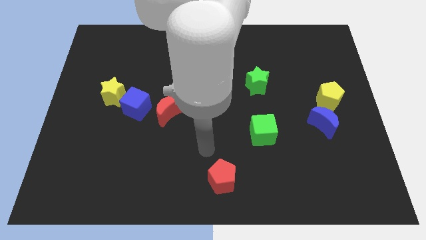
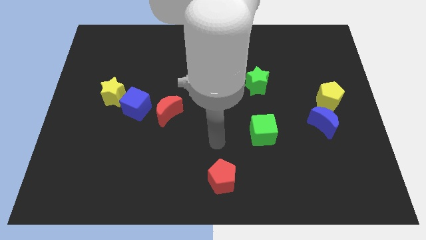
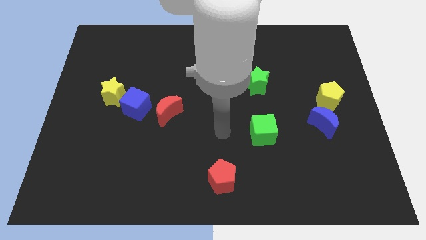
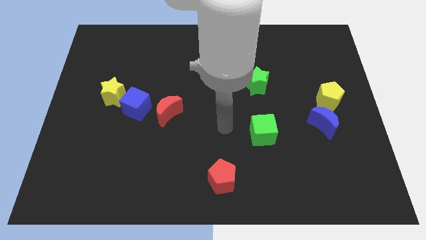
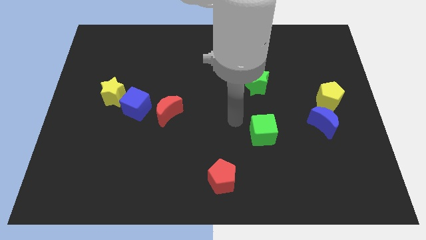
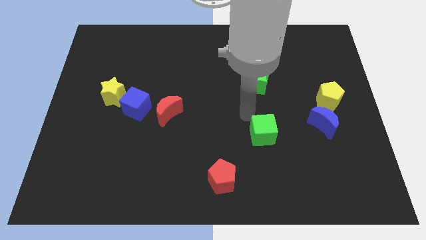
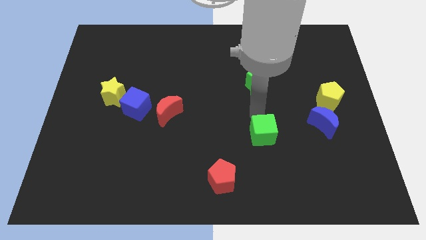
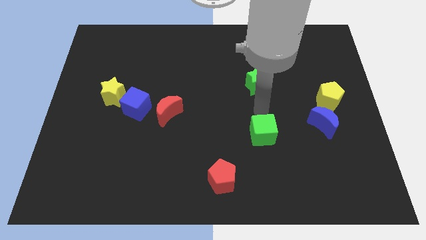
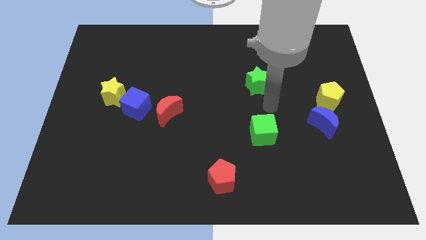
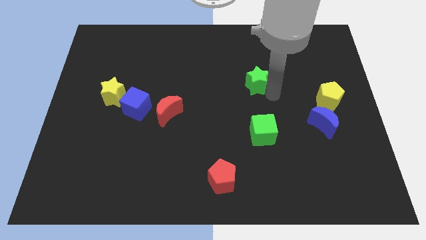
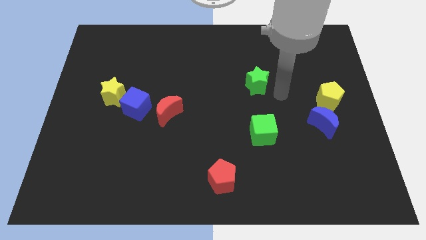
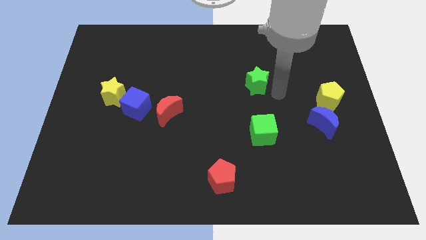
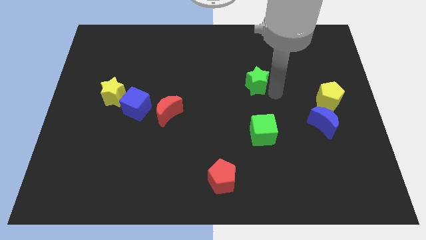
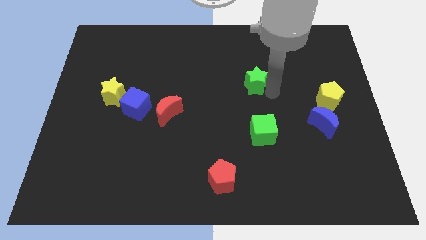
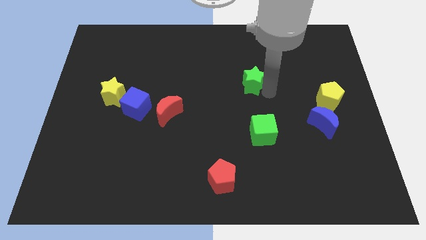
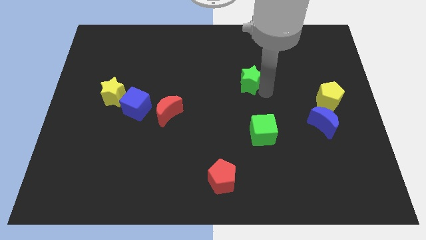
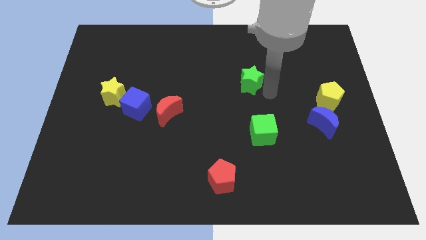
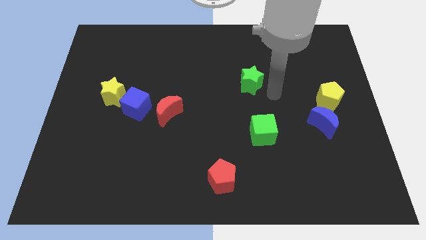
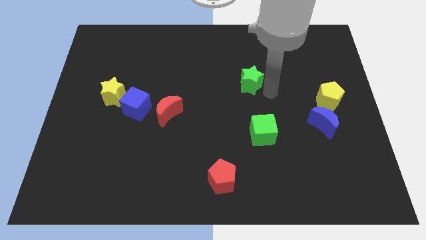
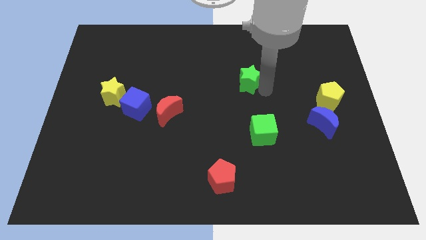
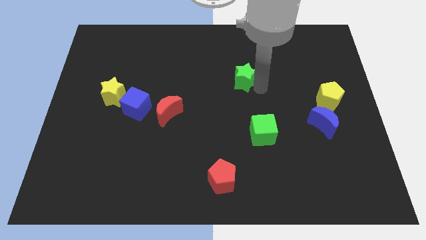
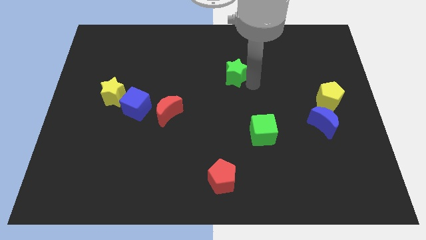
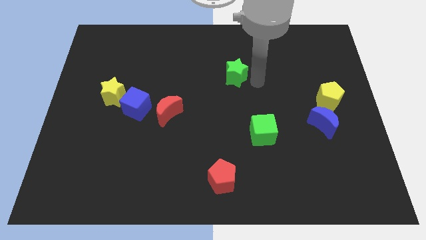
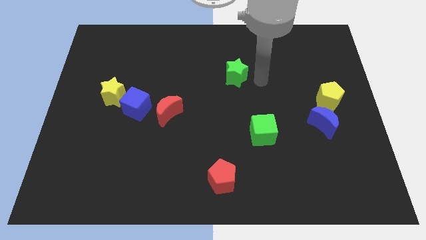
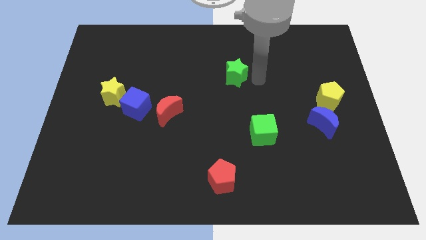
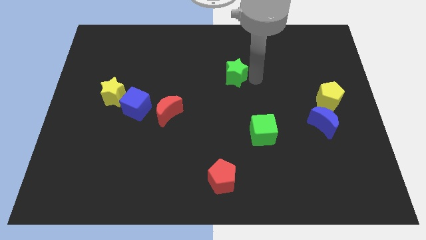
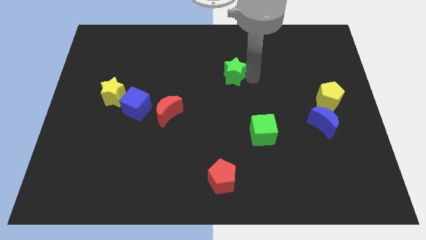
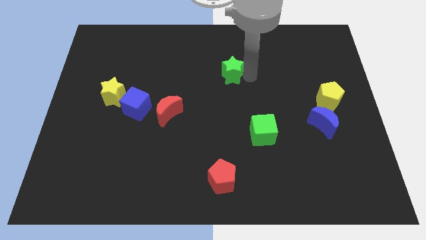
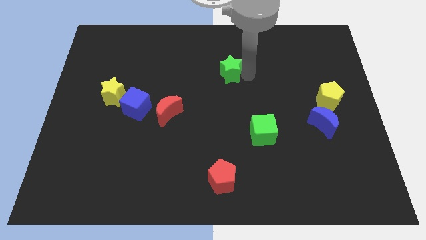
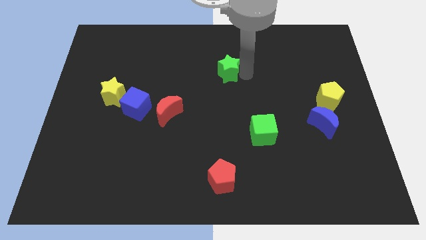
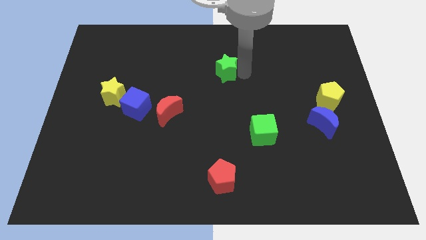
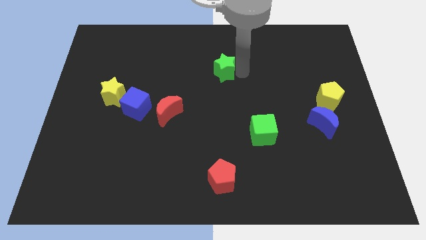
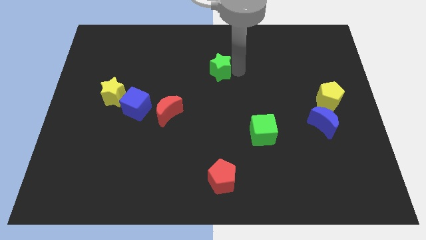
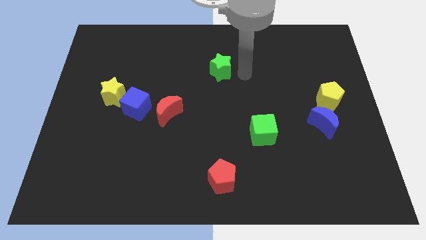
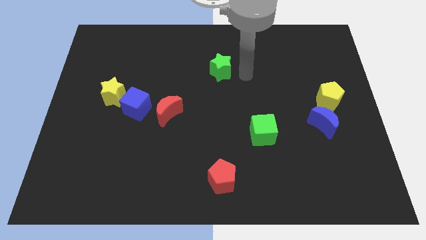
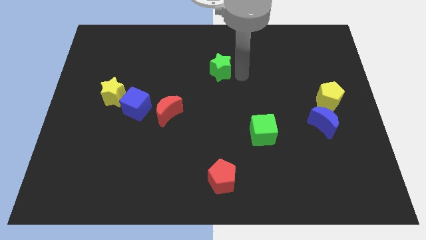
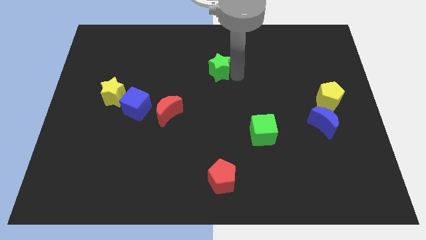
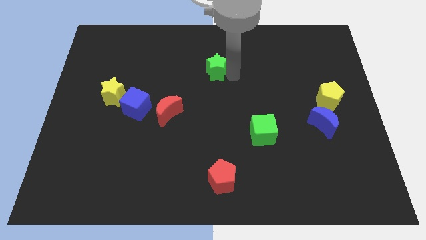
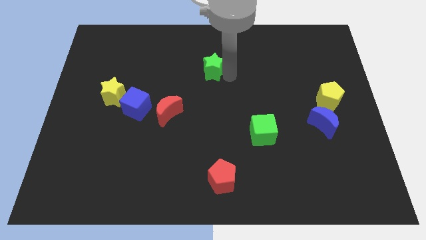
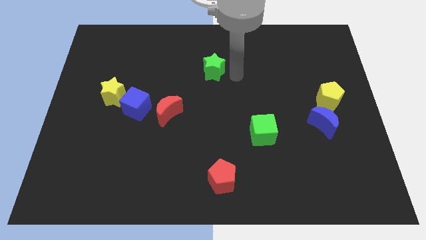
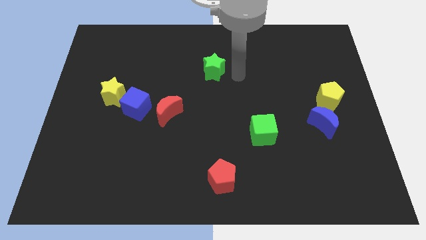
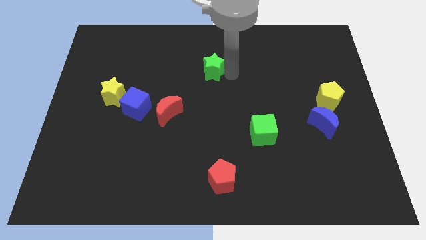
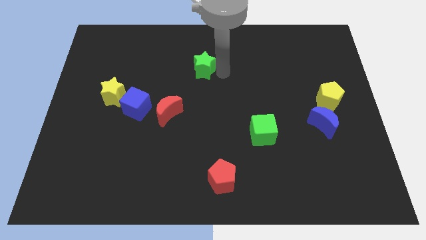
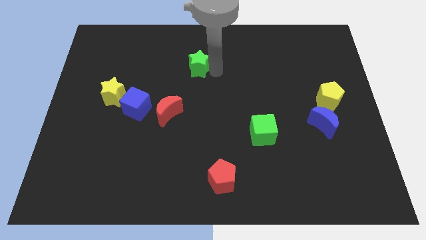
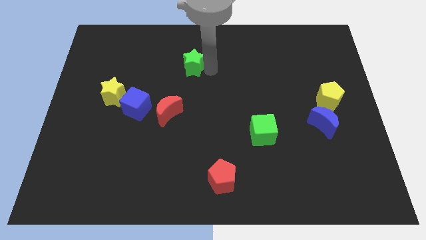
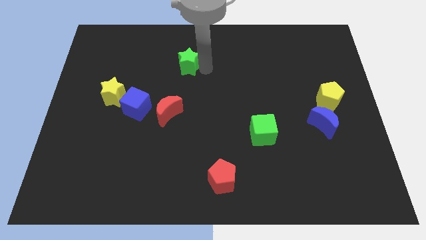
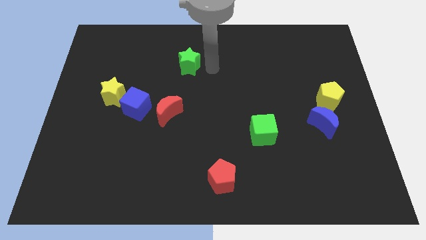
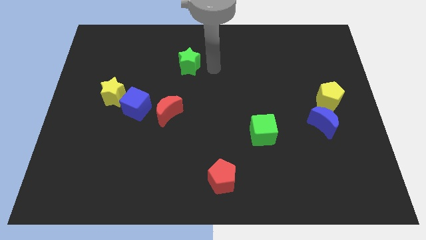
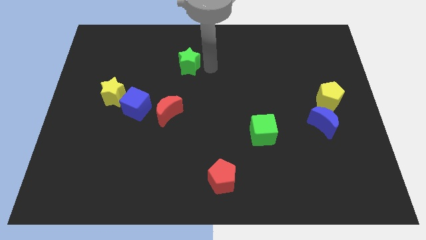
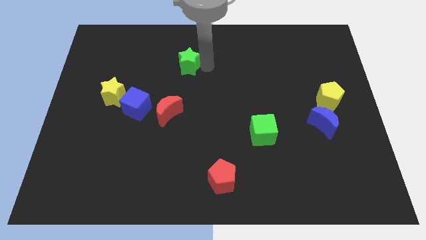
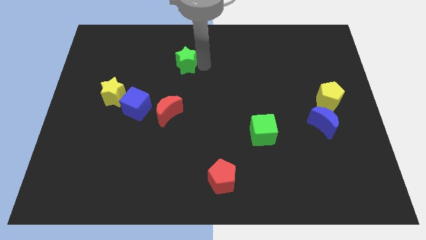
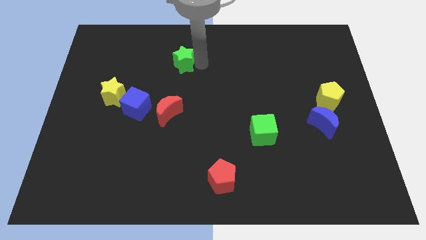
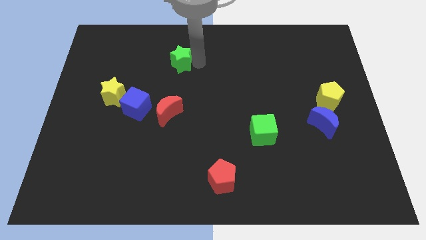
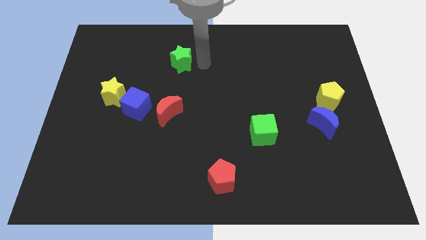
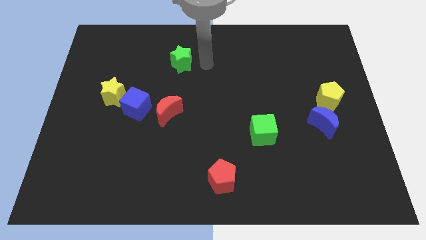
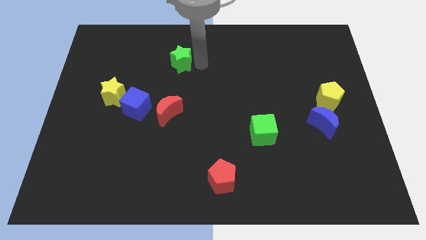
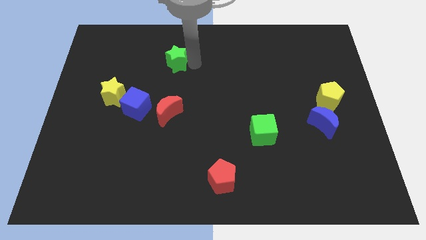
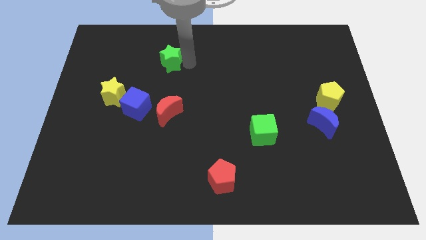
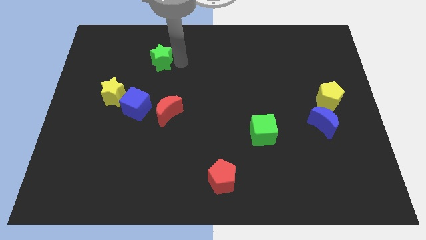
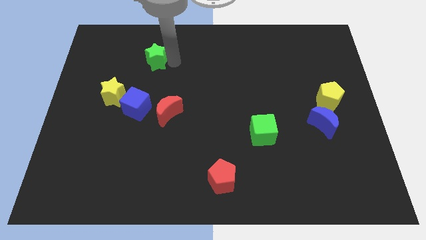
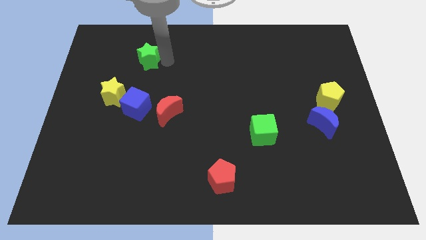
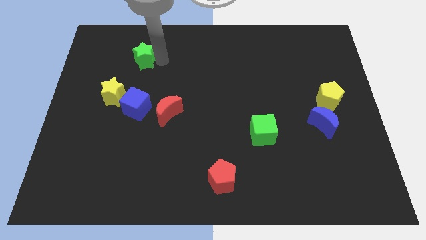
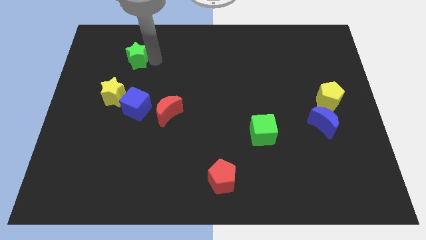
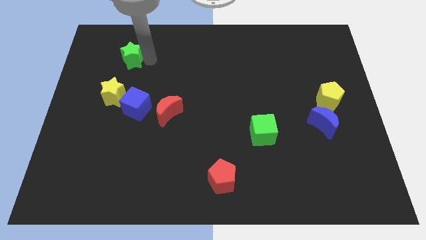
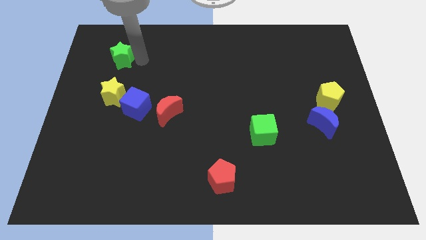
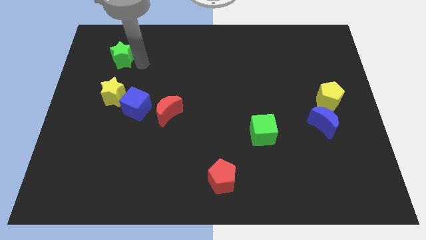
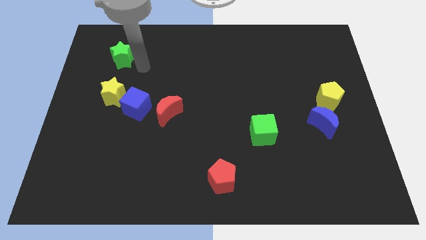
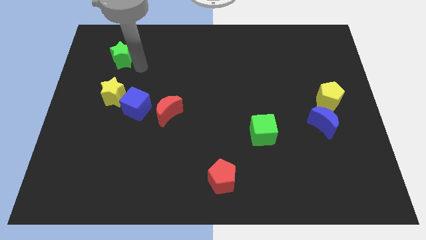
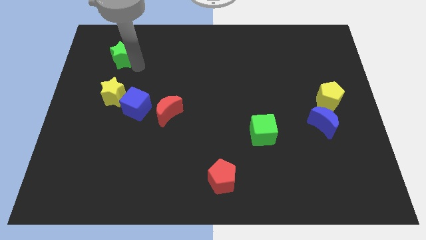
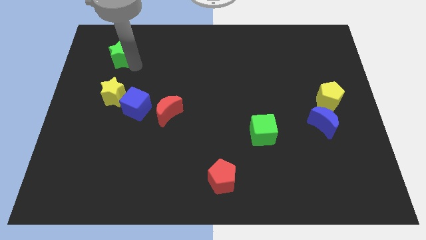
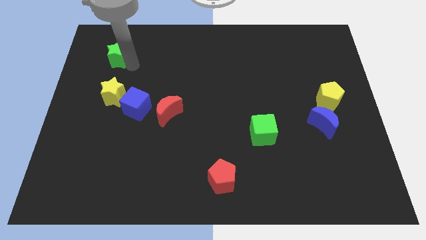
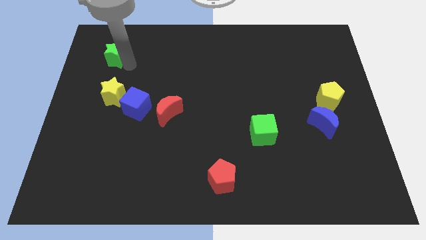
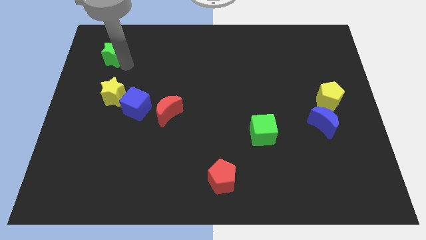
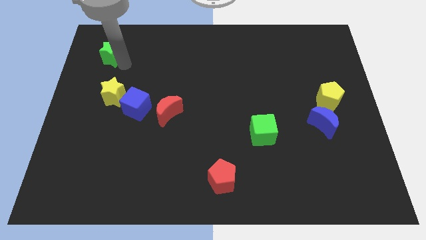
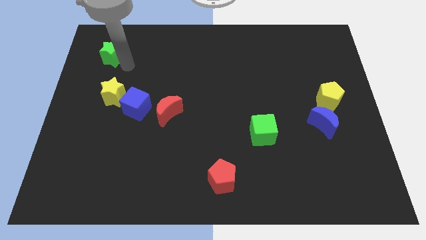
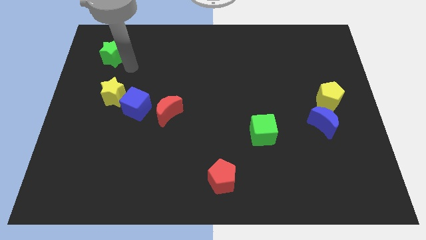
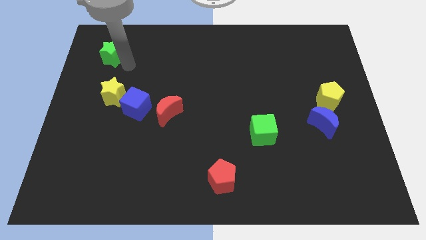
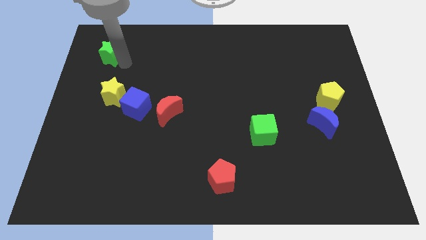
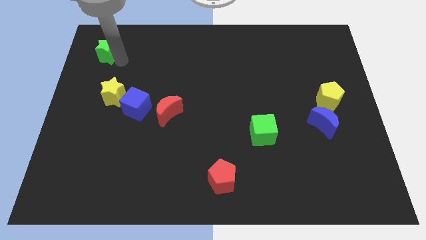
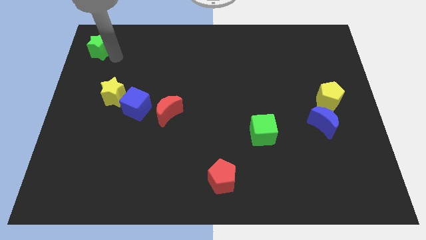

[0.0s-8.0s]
move the green star to the top left
